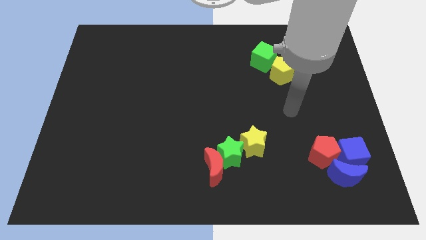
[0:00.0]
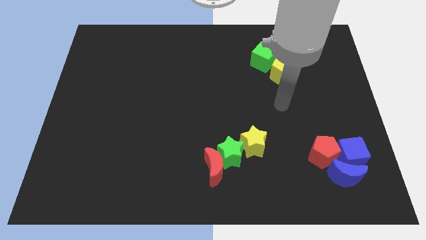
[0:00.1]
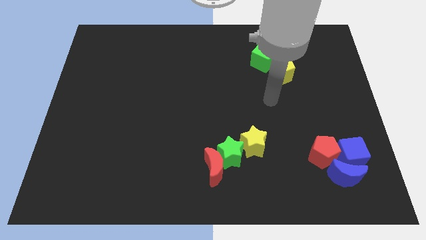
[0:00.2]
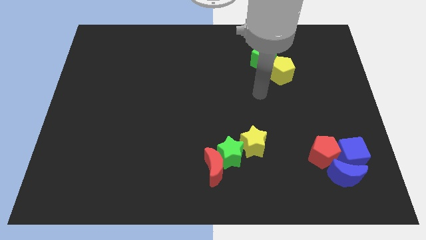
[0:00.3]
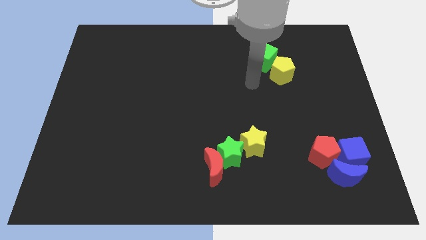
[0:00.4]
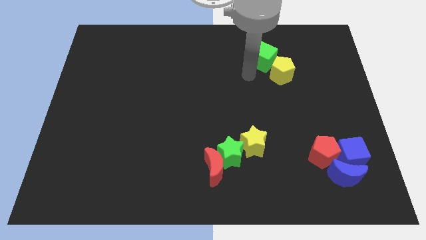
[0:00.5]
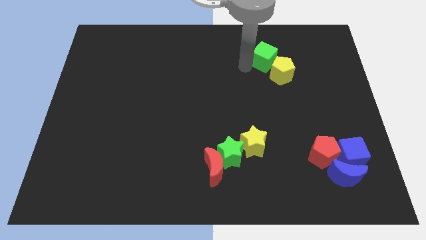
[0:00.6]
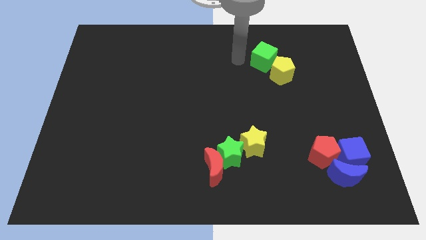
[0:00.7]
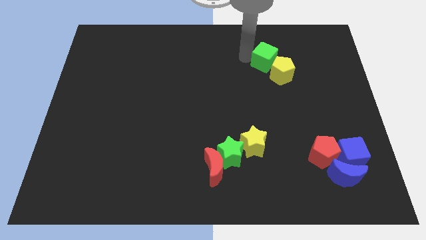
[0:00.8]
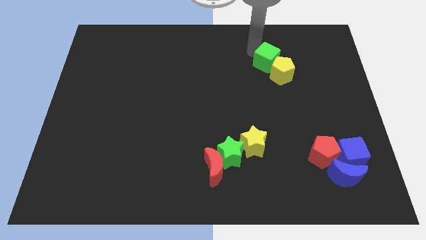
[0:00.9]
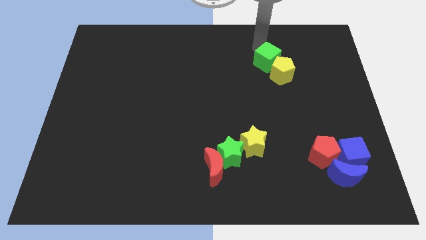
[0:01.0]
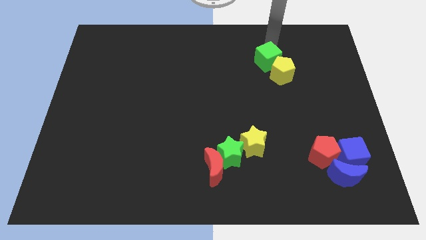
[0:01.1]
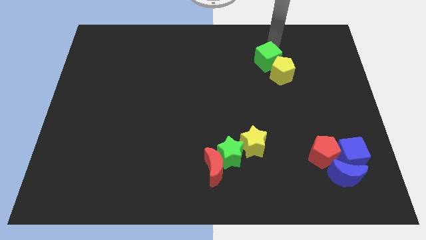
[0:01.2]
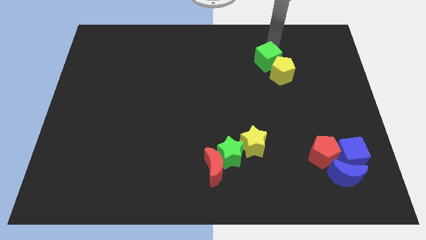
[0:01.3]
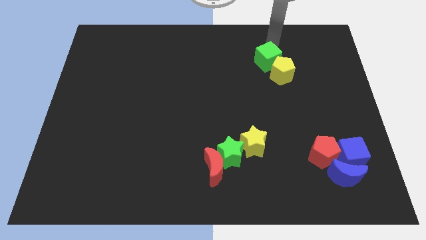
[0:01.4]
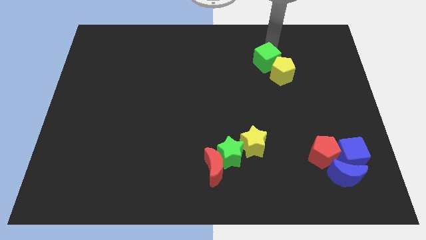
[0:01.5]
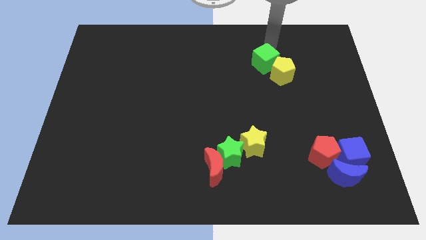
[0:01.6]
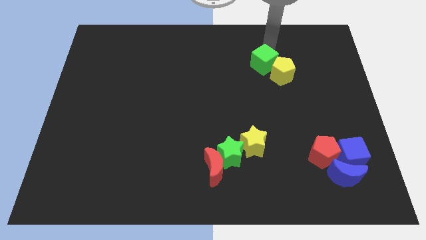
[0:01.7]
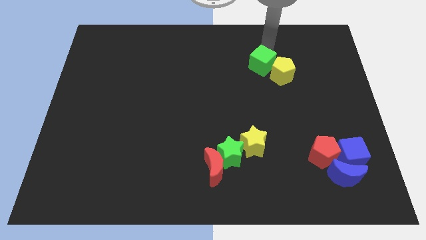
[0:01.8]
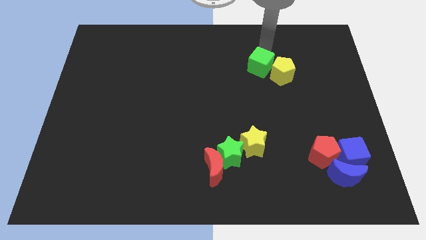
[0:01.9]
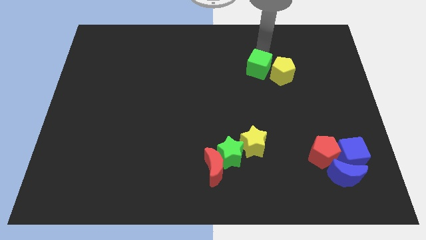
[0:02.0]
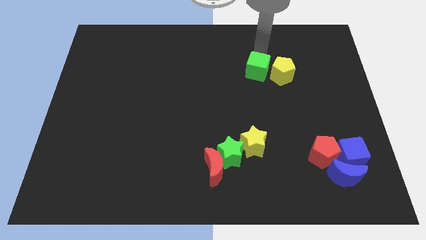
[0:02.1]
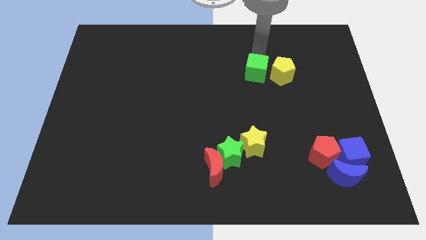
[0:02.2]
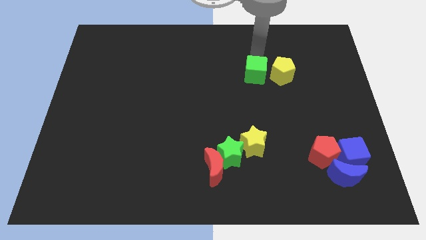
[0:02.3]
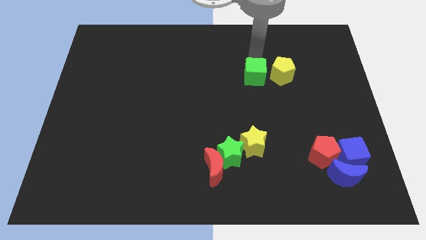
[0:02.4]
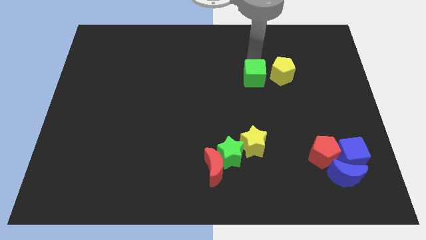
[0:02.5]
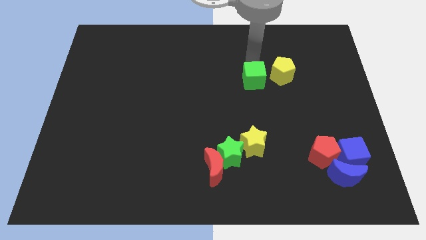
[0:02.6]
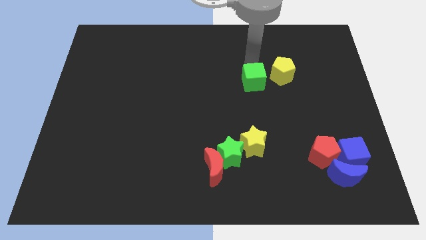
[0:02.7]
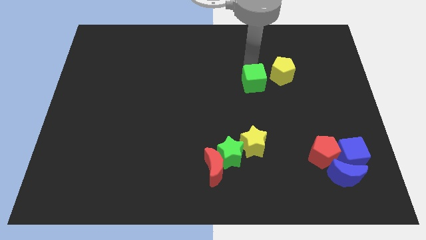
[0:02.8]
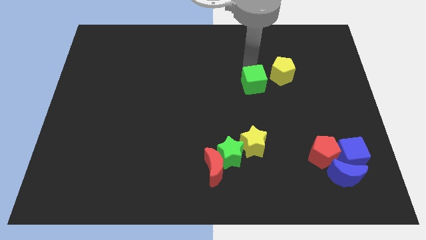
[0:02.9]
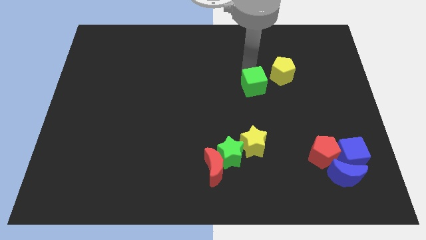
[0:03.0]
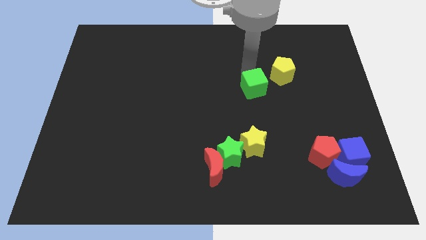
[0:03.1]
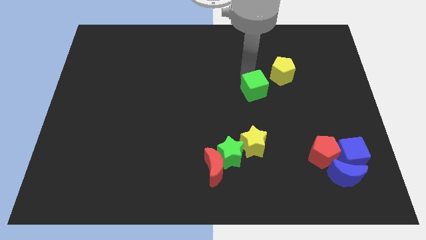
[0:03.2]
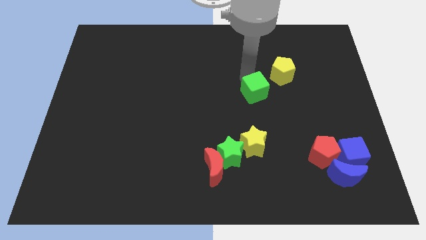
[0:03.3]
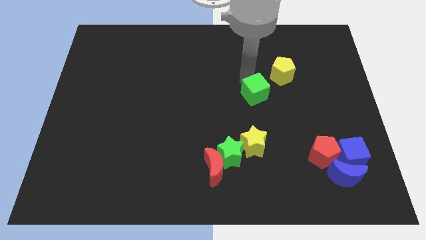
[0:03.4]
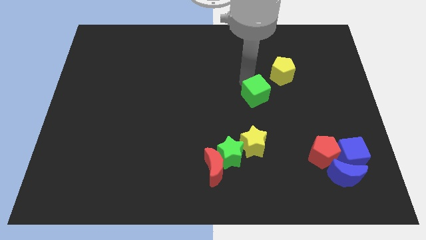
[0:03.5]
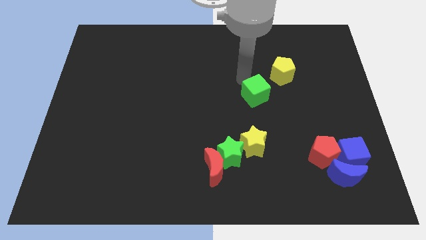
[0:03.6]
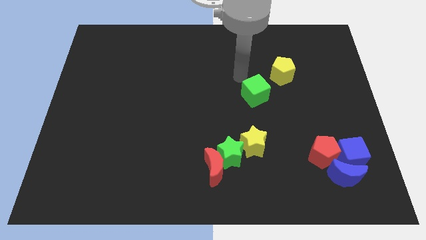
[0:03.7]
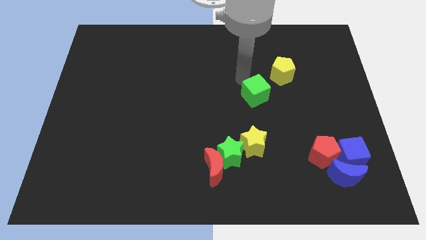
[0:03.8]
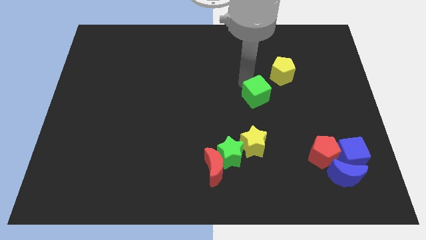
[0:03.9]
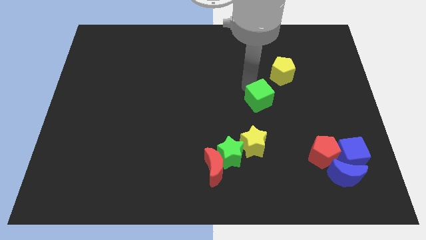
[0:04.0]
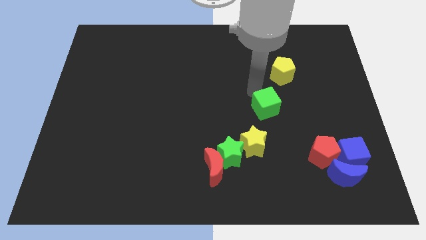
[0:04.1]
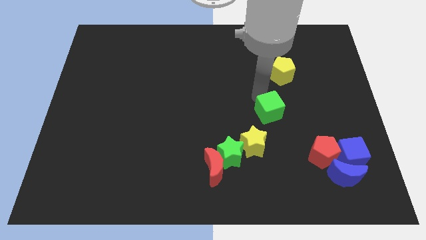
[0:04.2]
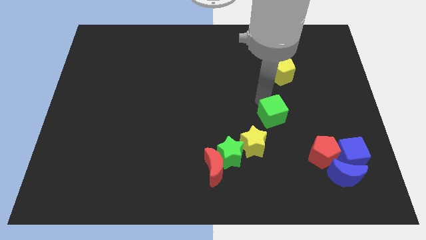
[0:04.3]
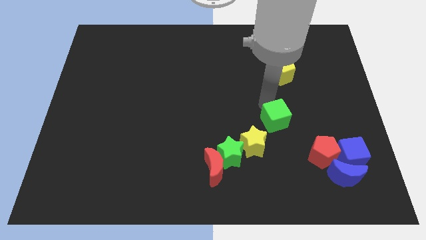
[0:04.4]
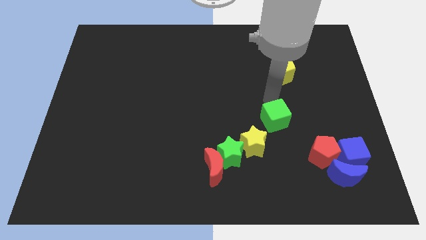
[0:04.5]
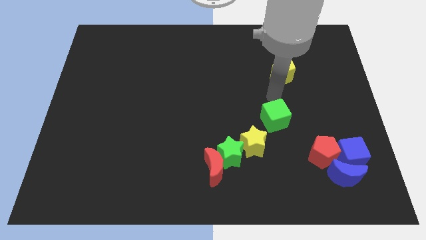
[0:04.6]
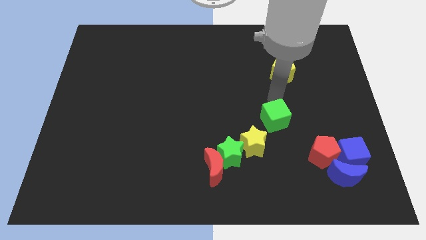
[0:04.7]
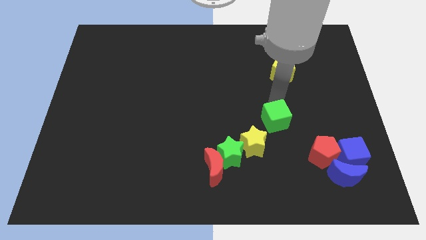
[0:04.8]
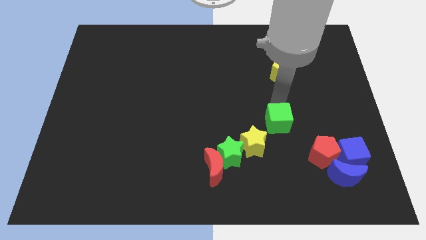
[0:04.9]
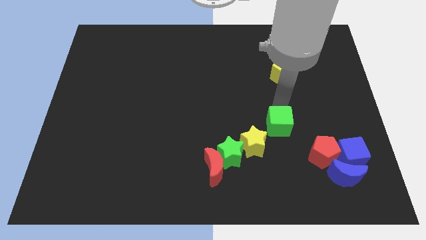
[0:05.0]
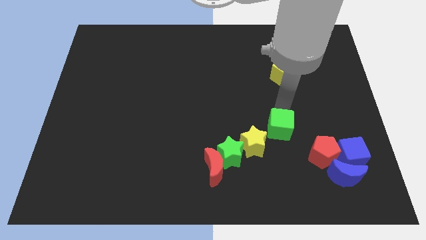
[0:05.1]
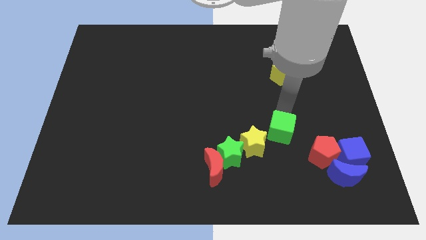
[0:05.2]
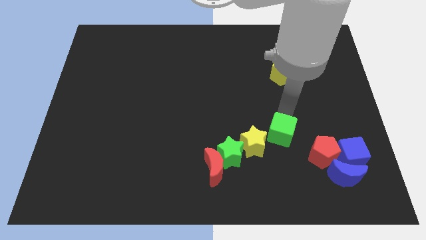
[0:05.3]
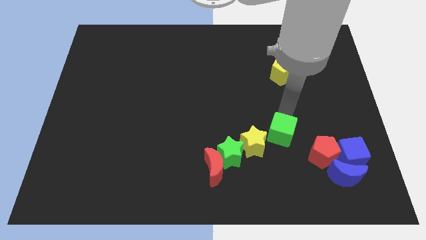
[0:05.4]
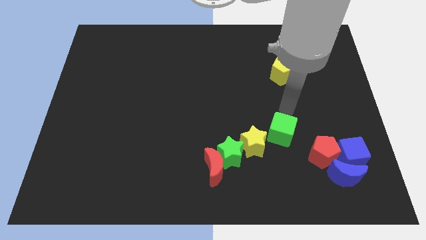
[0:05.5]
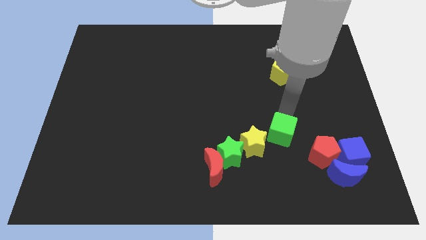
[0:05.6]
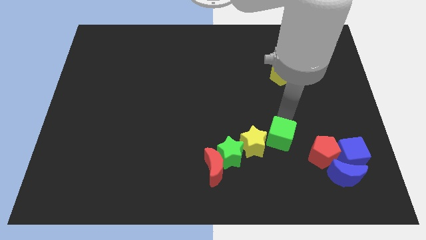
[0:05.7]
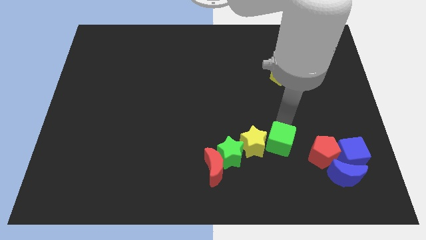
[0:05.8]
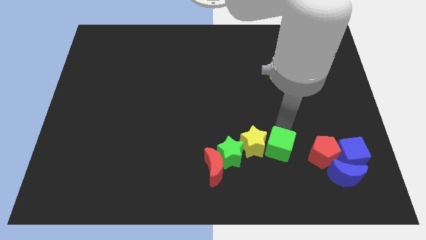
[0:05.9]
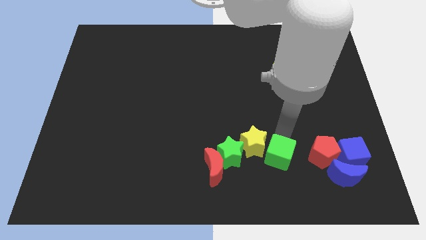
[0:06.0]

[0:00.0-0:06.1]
slide the green cube to the right of the red moon
